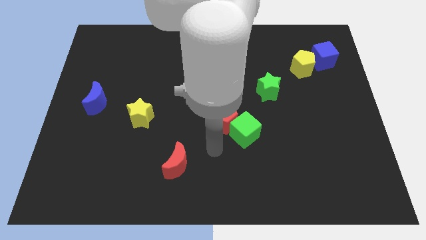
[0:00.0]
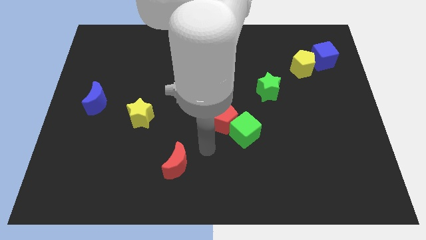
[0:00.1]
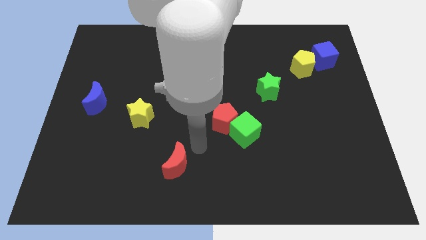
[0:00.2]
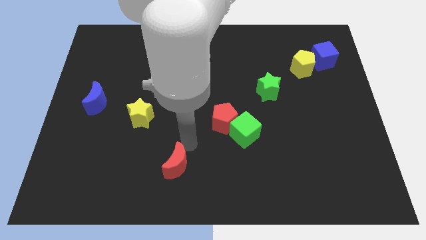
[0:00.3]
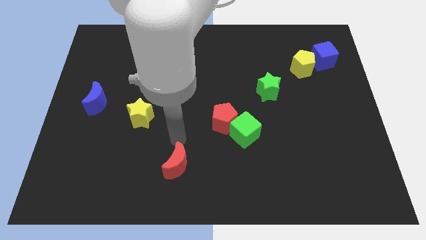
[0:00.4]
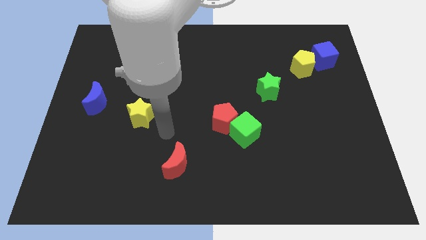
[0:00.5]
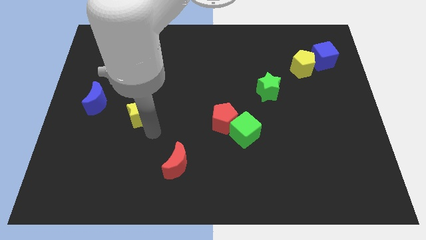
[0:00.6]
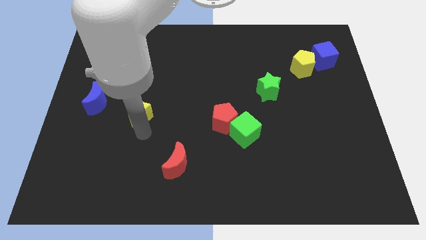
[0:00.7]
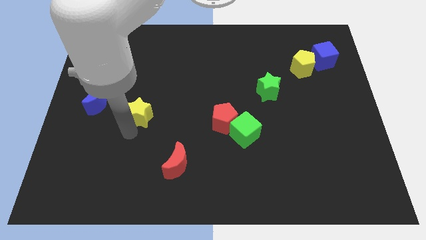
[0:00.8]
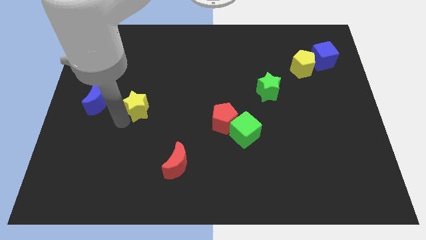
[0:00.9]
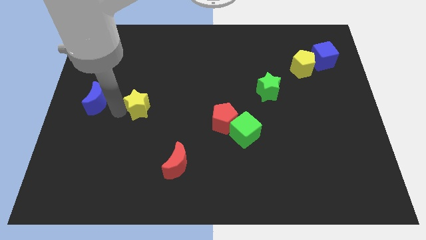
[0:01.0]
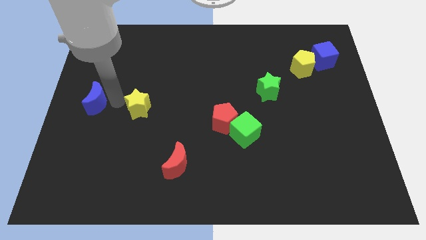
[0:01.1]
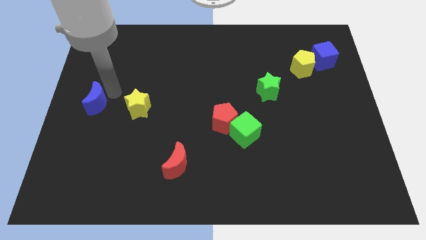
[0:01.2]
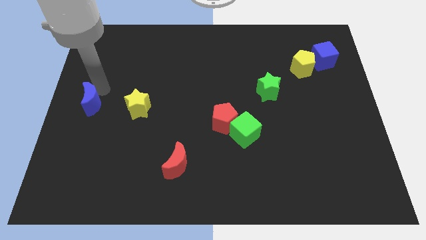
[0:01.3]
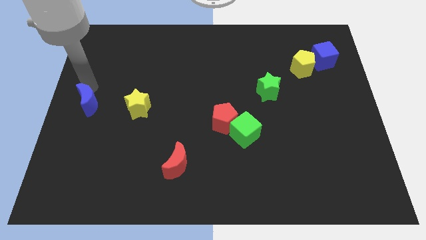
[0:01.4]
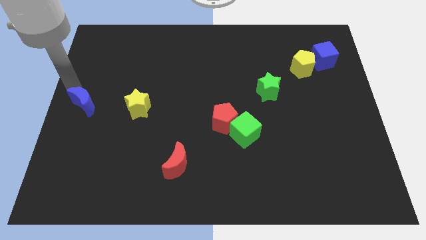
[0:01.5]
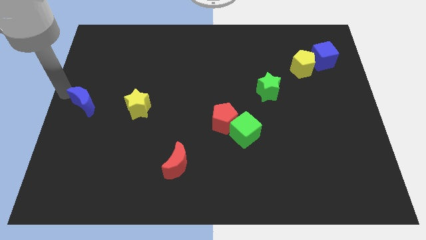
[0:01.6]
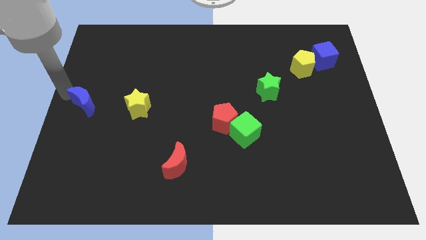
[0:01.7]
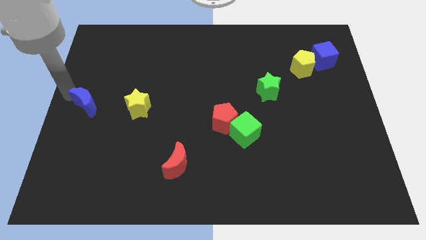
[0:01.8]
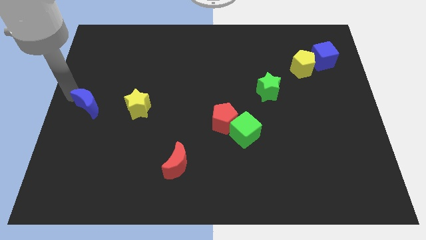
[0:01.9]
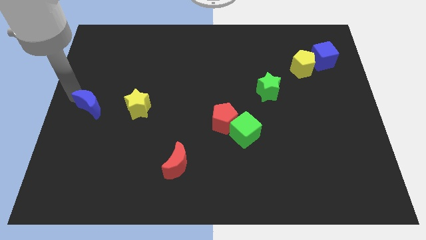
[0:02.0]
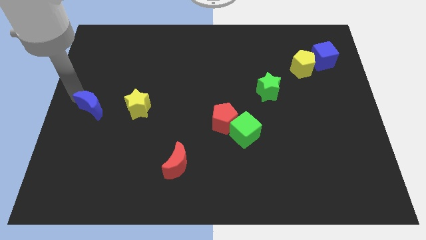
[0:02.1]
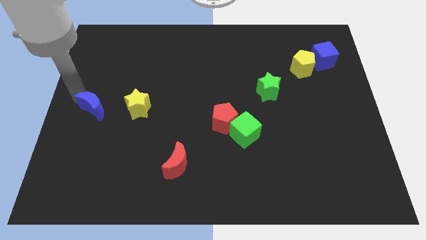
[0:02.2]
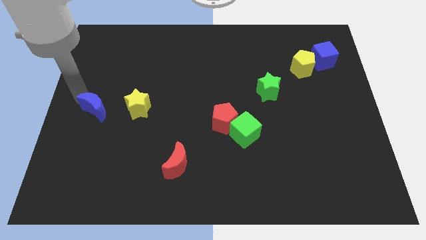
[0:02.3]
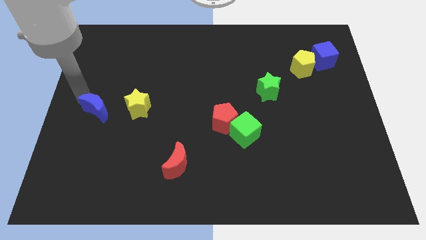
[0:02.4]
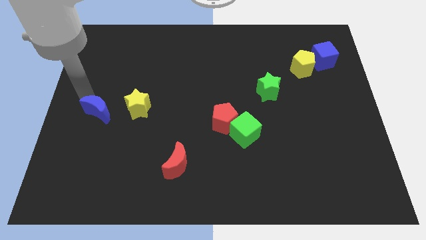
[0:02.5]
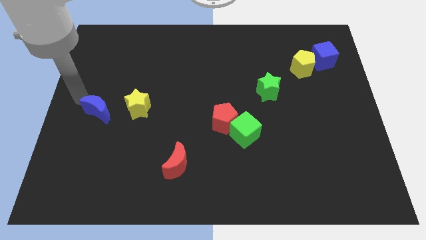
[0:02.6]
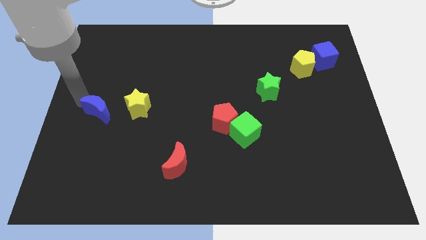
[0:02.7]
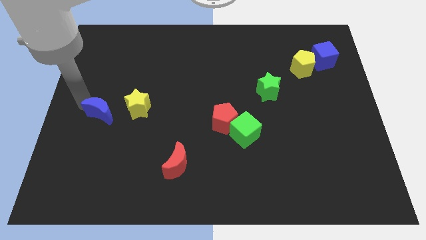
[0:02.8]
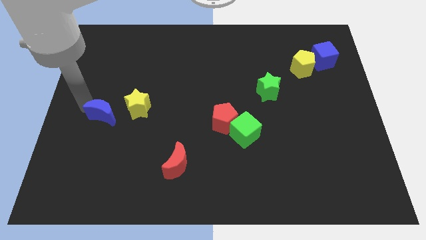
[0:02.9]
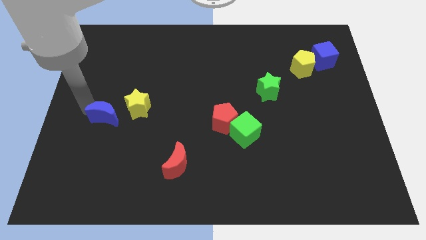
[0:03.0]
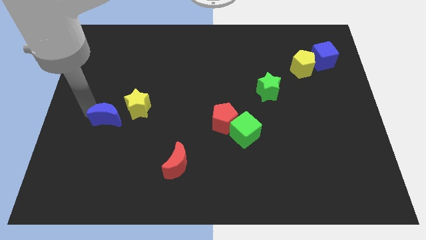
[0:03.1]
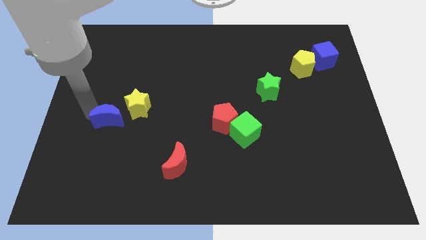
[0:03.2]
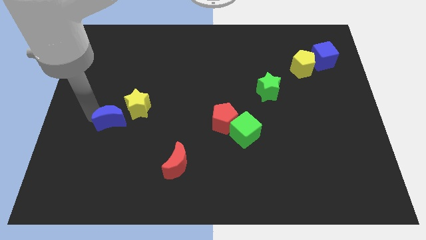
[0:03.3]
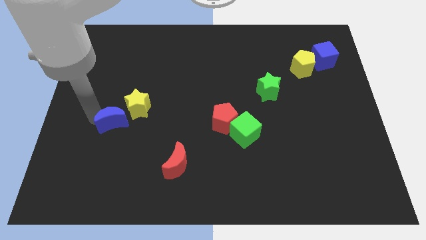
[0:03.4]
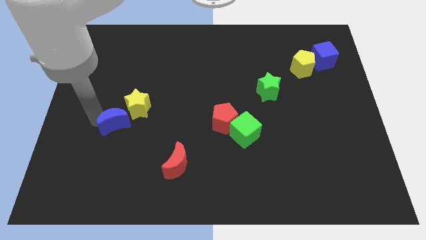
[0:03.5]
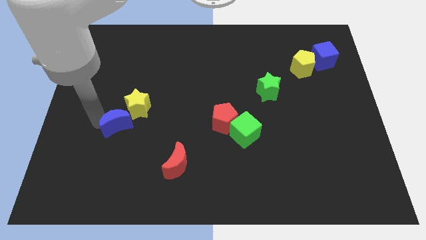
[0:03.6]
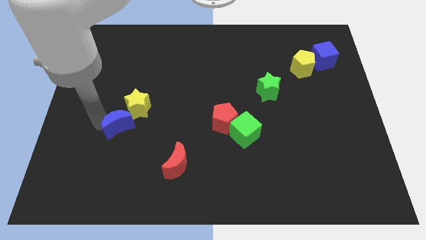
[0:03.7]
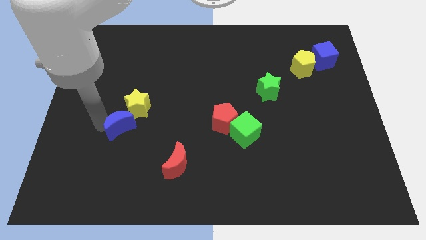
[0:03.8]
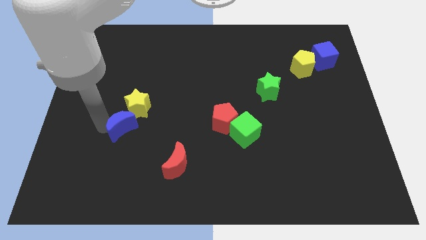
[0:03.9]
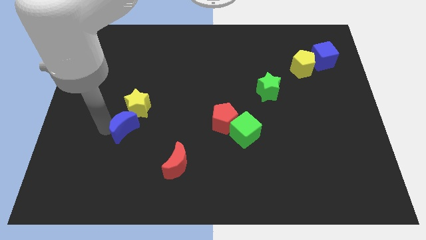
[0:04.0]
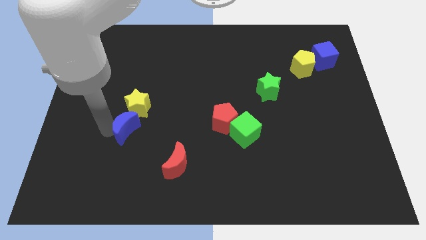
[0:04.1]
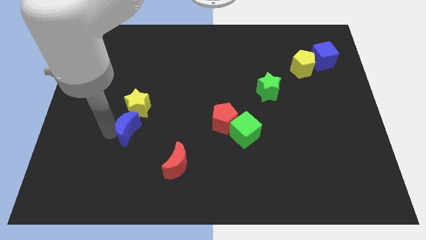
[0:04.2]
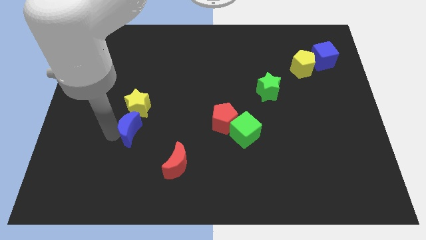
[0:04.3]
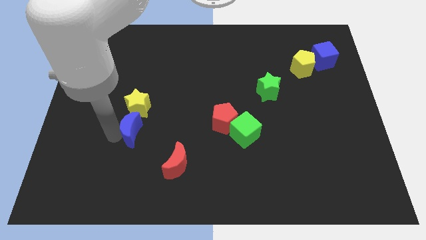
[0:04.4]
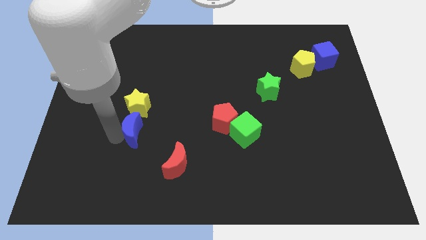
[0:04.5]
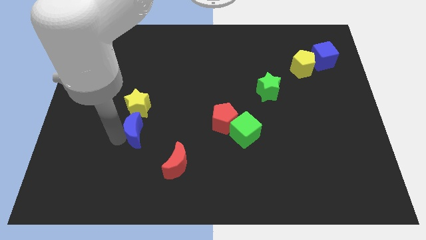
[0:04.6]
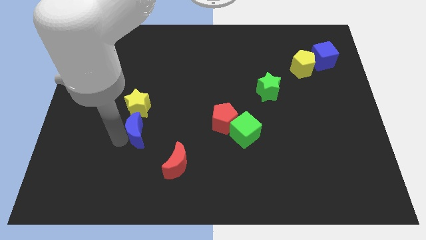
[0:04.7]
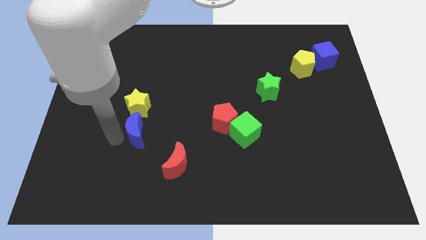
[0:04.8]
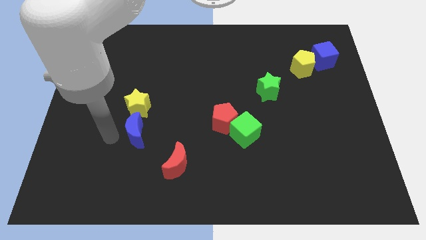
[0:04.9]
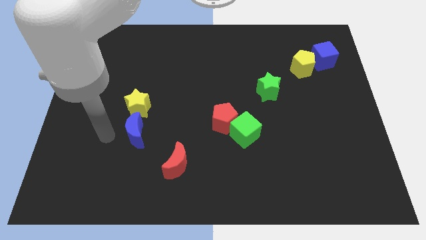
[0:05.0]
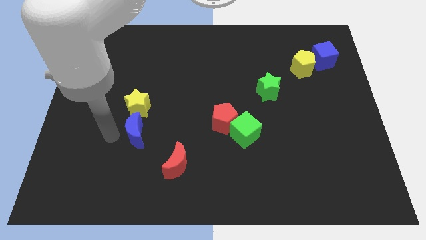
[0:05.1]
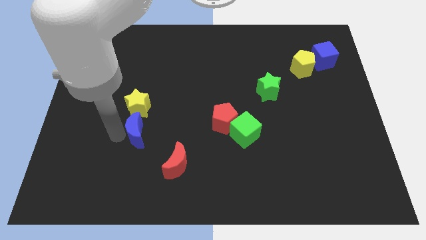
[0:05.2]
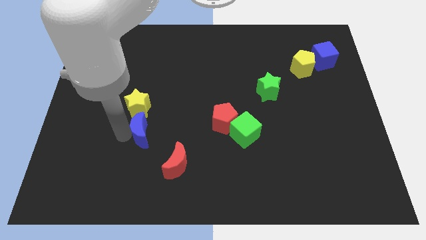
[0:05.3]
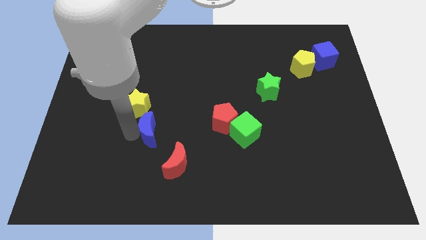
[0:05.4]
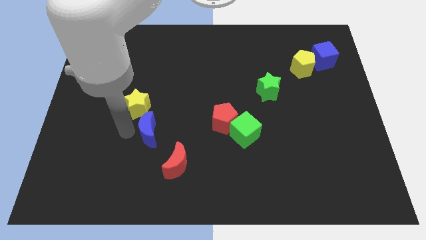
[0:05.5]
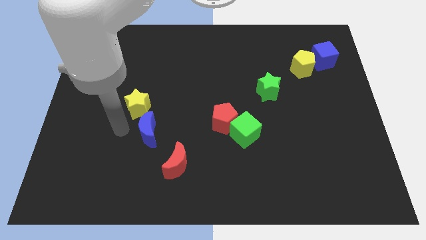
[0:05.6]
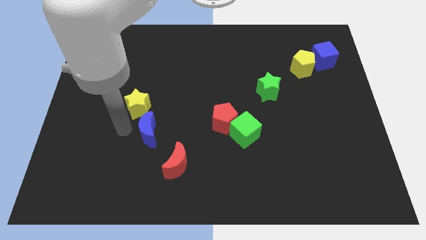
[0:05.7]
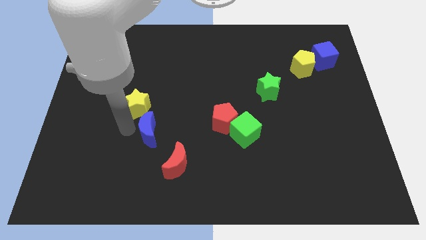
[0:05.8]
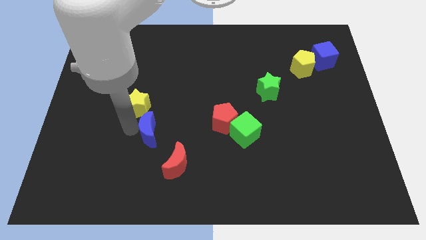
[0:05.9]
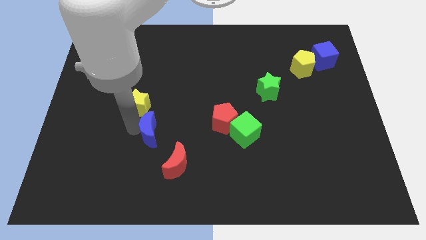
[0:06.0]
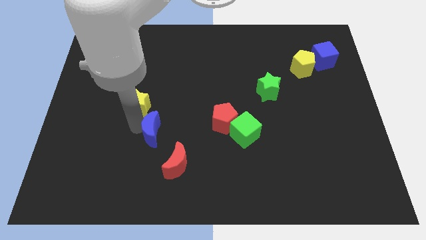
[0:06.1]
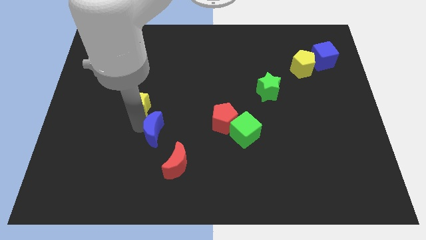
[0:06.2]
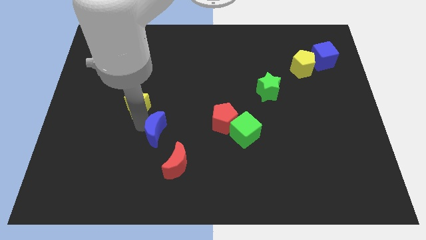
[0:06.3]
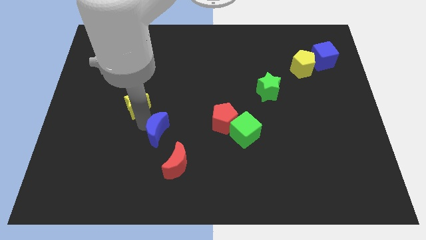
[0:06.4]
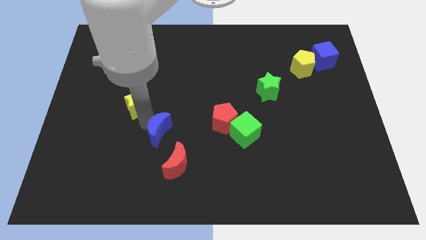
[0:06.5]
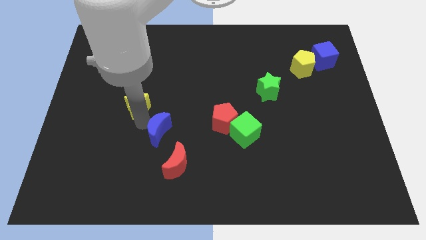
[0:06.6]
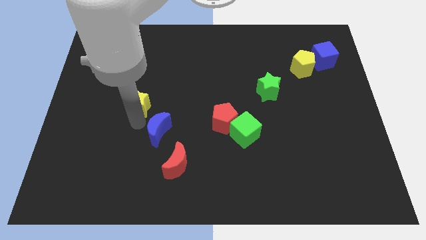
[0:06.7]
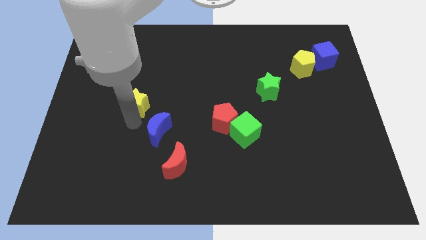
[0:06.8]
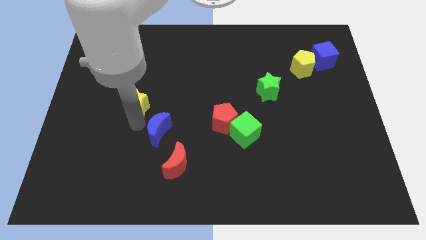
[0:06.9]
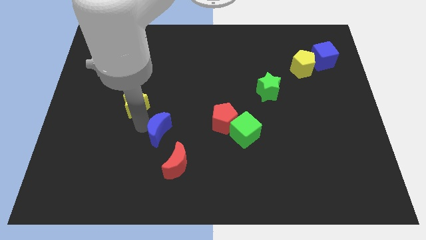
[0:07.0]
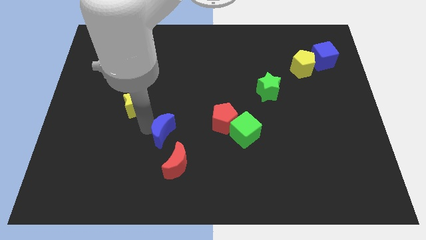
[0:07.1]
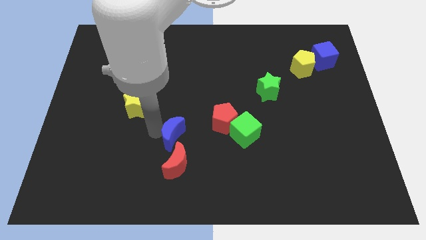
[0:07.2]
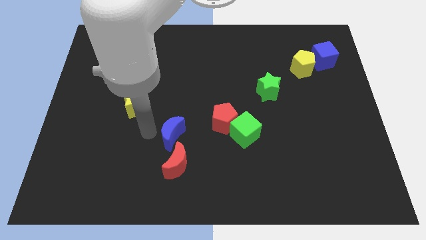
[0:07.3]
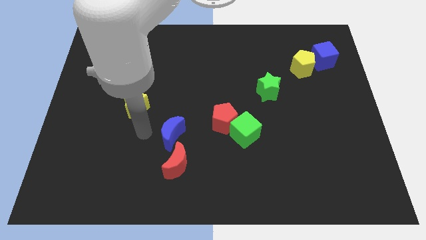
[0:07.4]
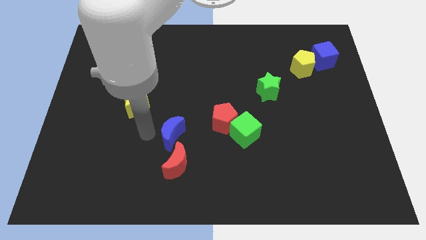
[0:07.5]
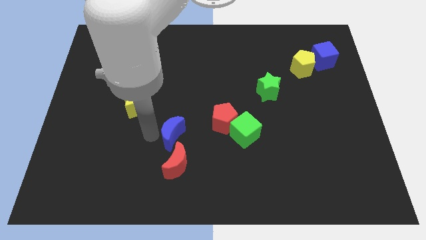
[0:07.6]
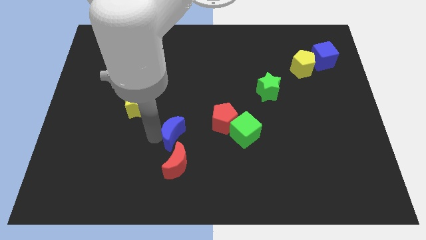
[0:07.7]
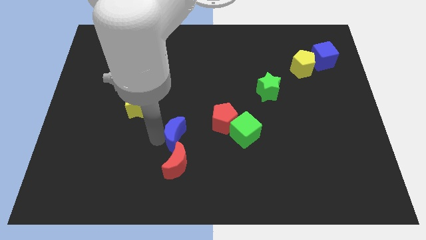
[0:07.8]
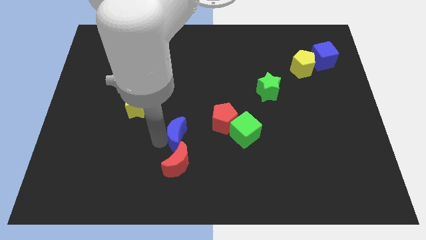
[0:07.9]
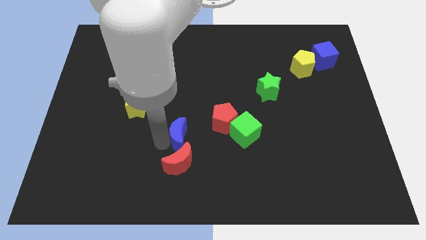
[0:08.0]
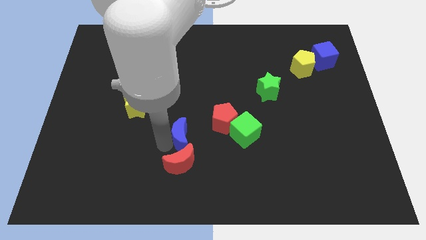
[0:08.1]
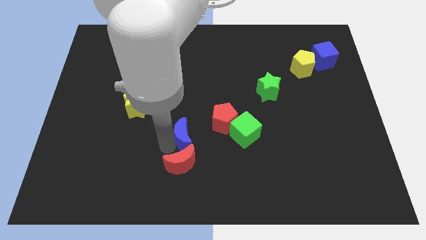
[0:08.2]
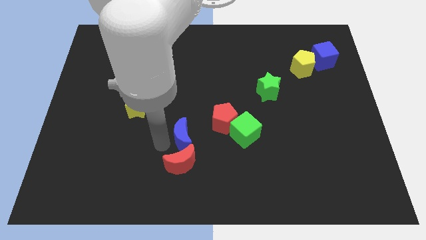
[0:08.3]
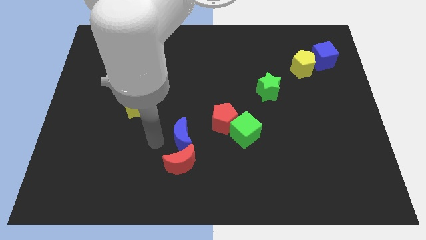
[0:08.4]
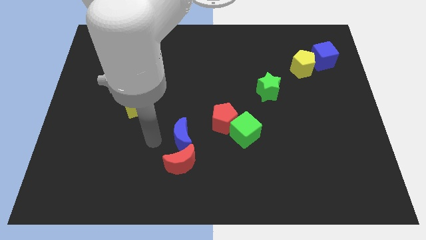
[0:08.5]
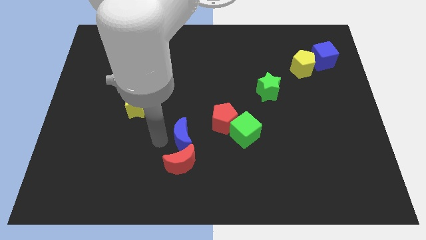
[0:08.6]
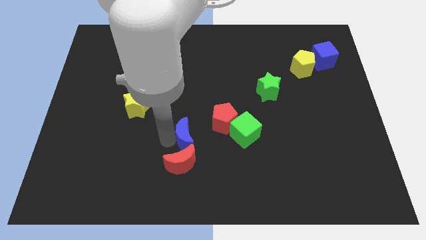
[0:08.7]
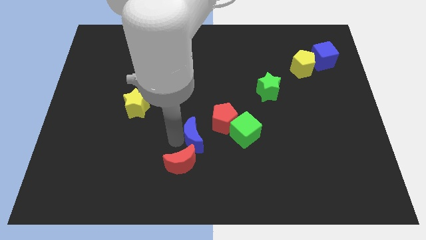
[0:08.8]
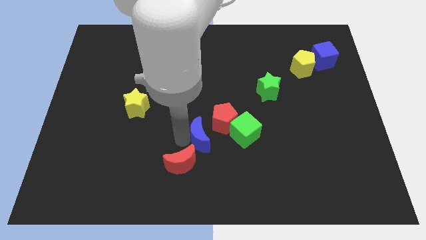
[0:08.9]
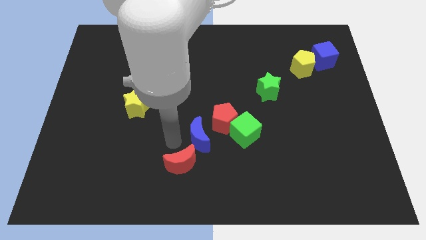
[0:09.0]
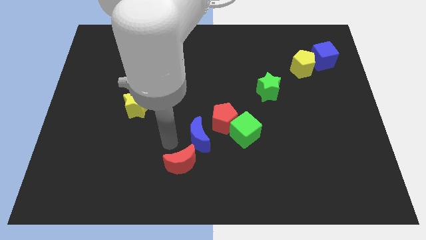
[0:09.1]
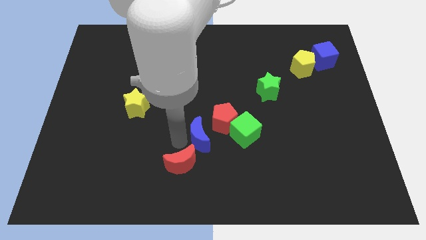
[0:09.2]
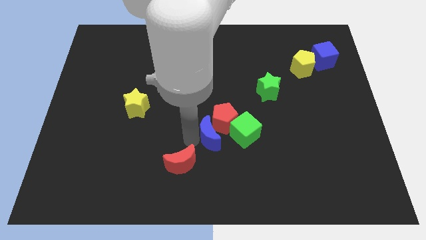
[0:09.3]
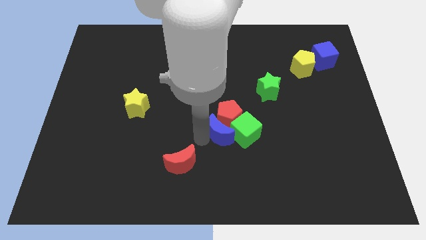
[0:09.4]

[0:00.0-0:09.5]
put the blue moon next to the green cube
